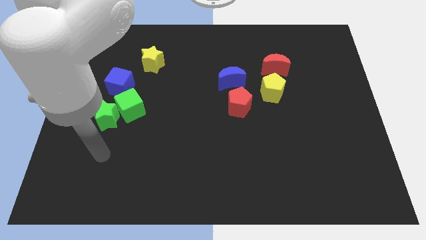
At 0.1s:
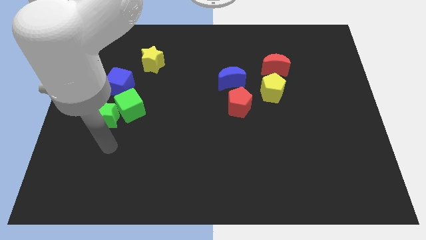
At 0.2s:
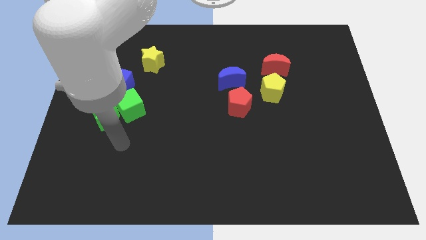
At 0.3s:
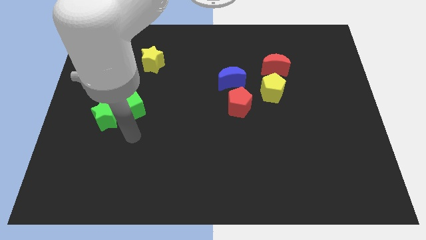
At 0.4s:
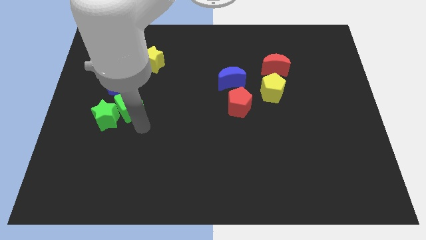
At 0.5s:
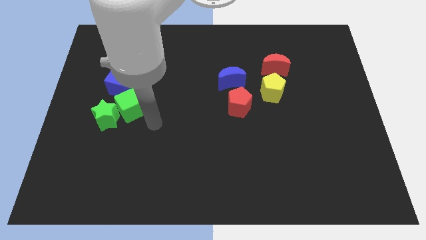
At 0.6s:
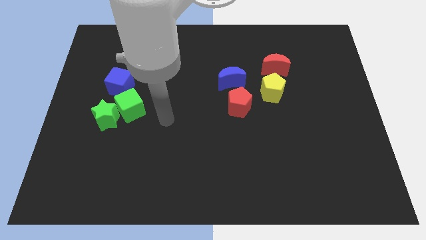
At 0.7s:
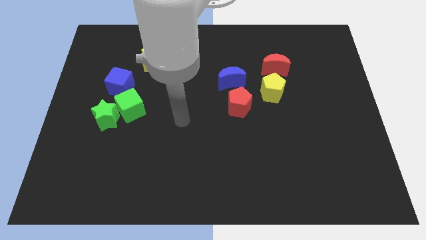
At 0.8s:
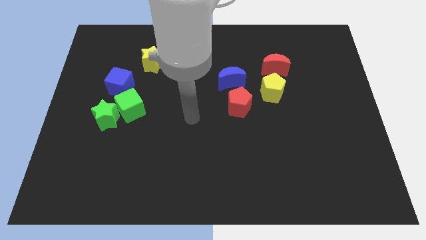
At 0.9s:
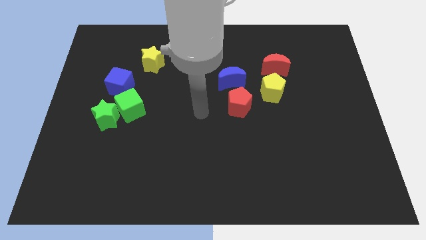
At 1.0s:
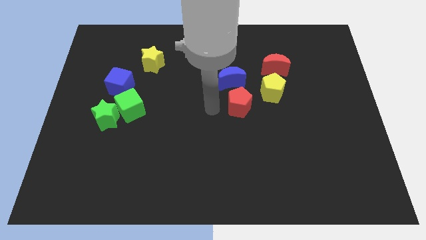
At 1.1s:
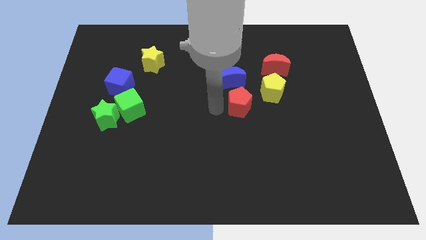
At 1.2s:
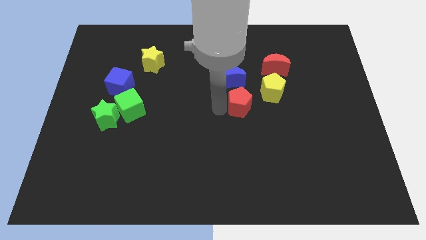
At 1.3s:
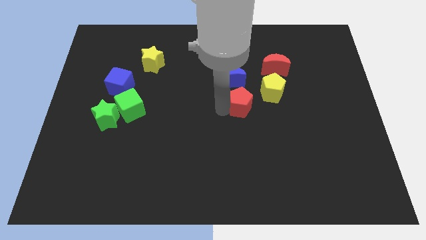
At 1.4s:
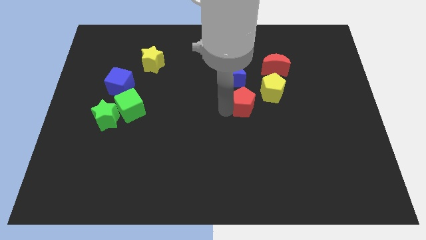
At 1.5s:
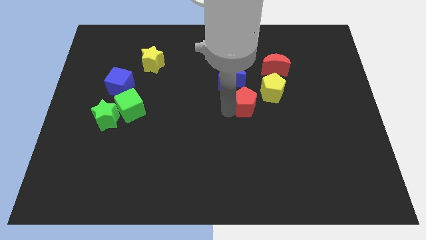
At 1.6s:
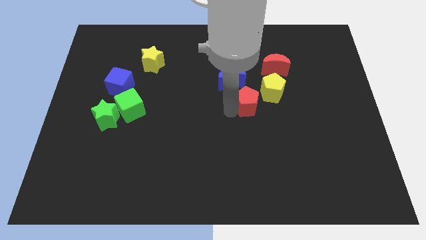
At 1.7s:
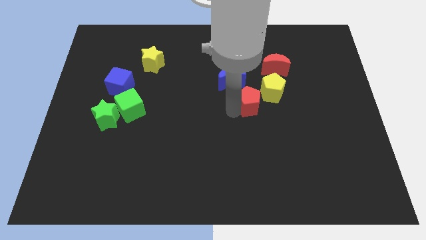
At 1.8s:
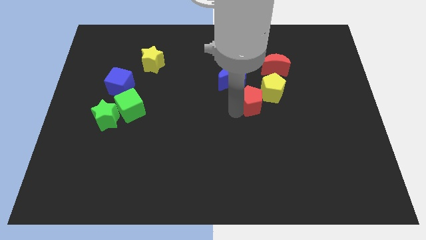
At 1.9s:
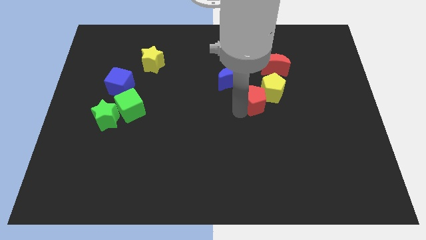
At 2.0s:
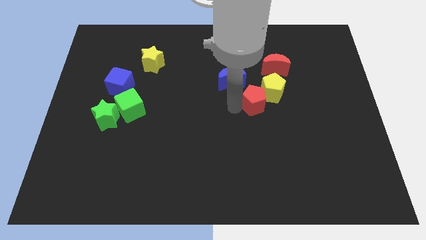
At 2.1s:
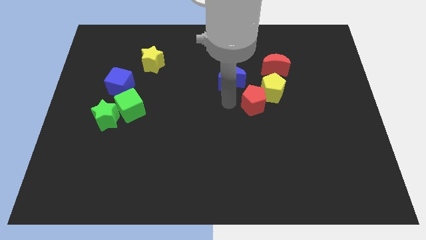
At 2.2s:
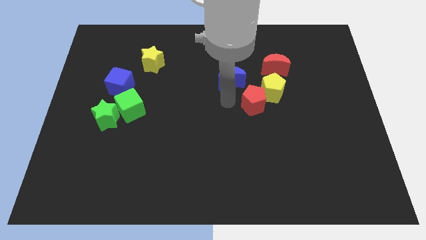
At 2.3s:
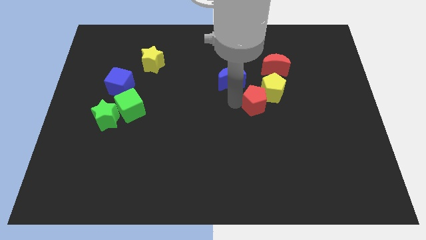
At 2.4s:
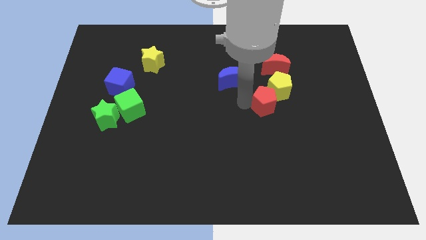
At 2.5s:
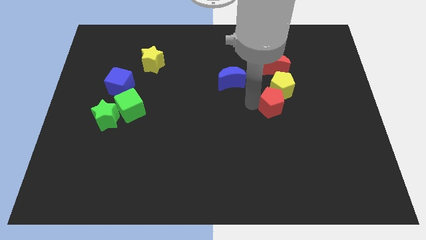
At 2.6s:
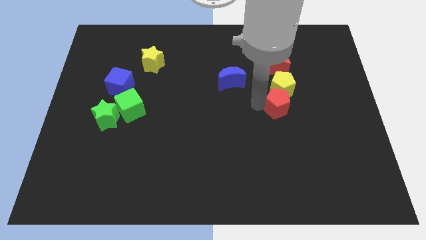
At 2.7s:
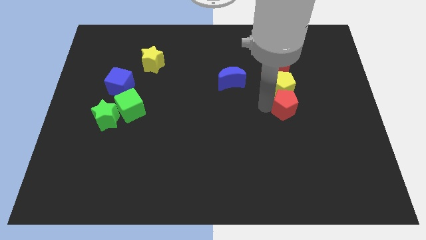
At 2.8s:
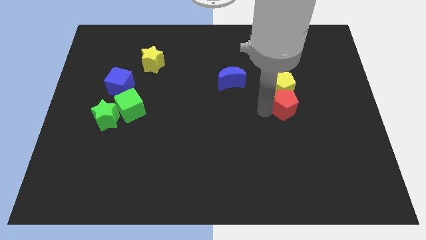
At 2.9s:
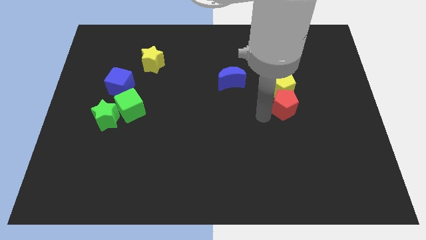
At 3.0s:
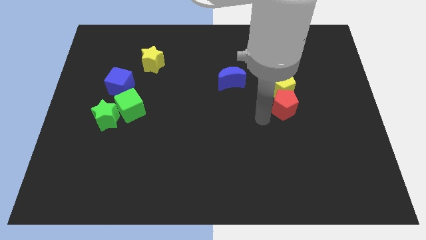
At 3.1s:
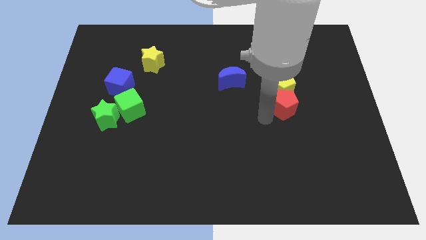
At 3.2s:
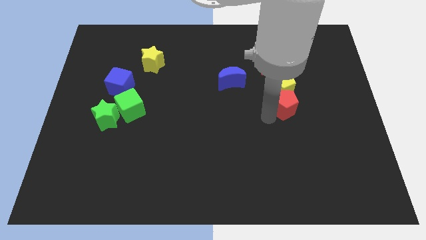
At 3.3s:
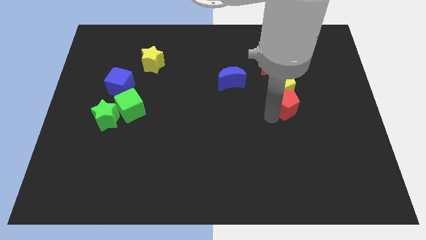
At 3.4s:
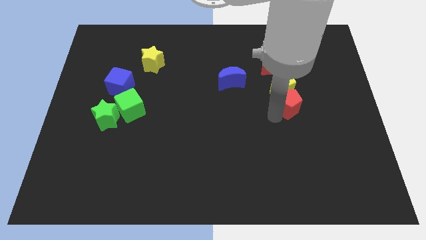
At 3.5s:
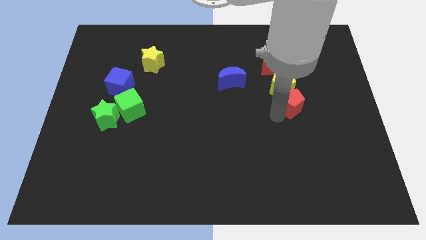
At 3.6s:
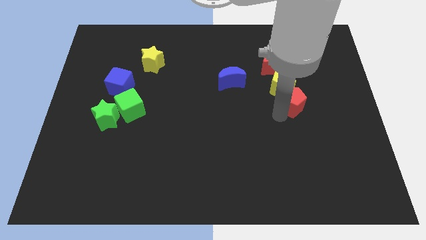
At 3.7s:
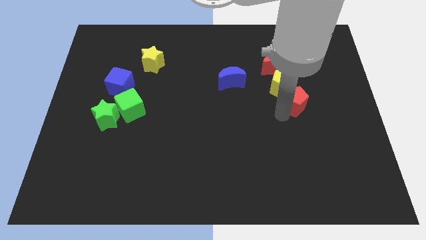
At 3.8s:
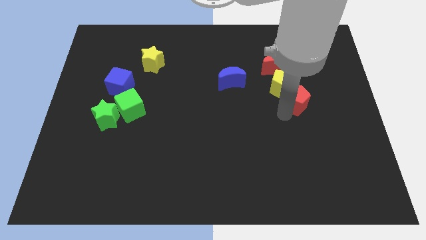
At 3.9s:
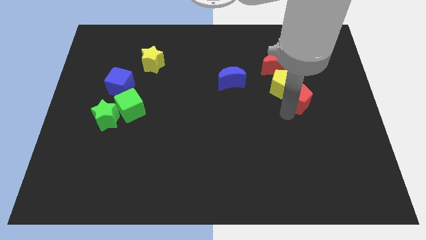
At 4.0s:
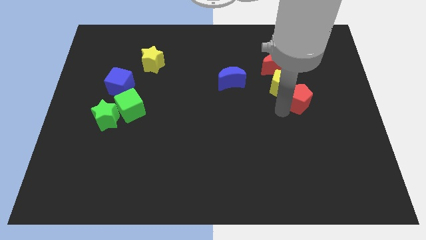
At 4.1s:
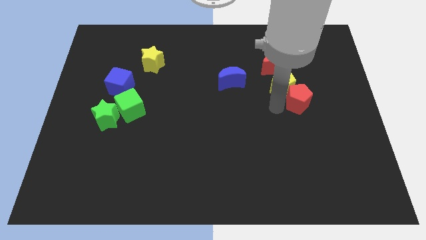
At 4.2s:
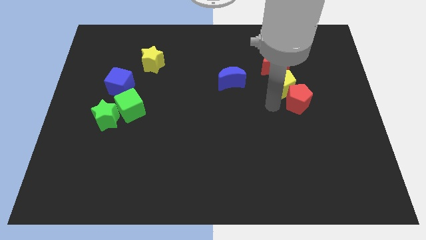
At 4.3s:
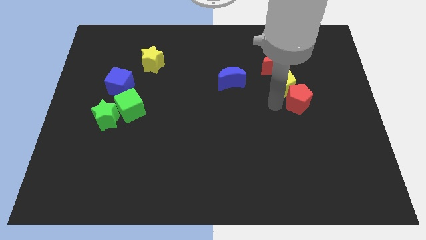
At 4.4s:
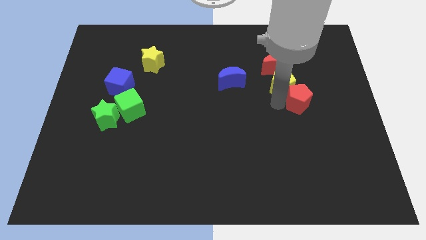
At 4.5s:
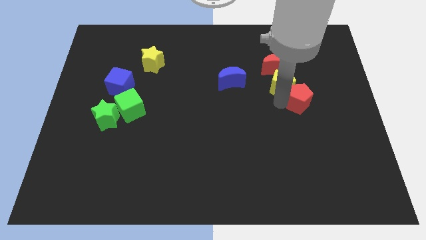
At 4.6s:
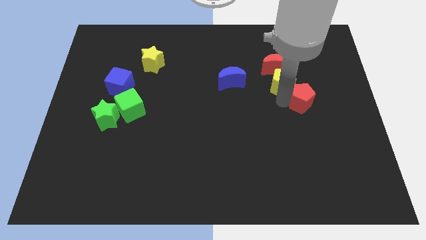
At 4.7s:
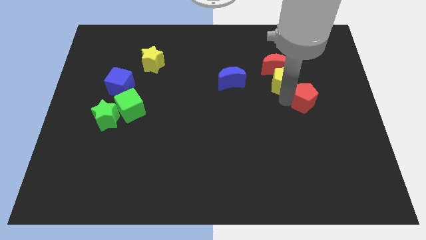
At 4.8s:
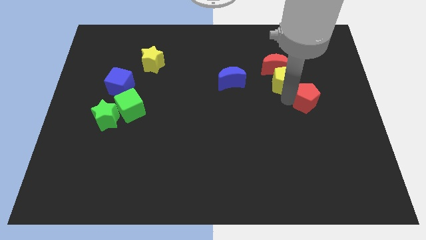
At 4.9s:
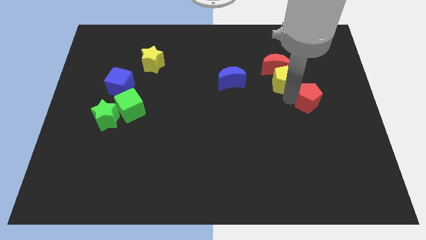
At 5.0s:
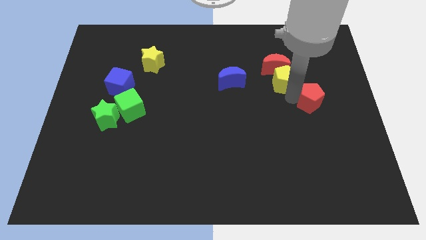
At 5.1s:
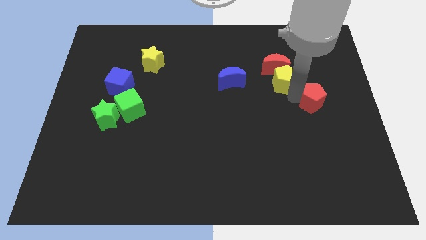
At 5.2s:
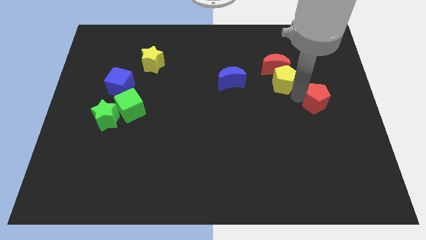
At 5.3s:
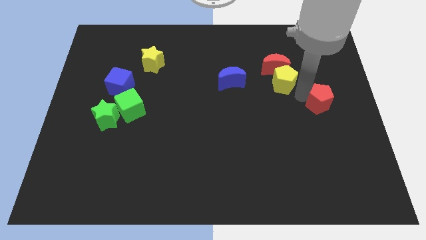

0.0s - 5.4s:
put the red pentagon to the right side of the board

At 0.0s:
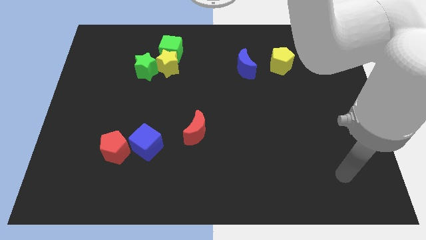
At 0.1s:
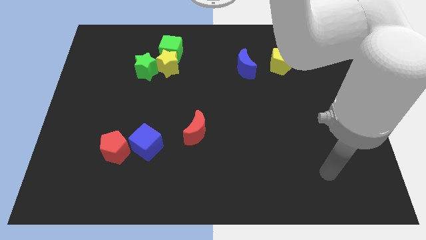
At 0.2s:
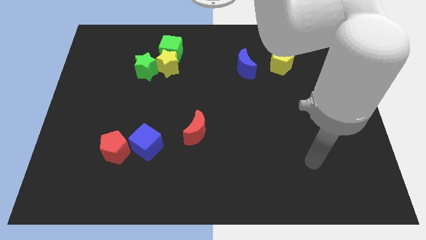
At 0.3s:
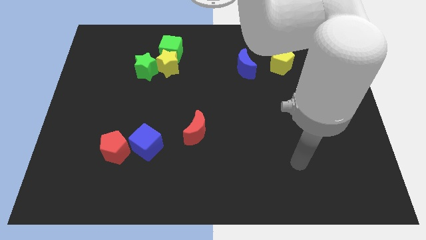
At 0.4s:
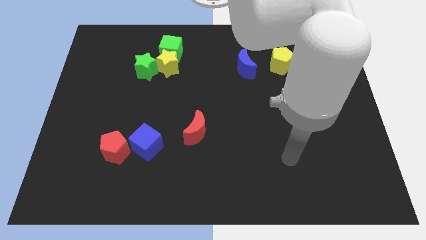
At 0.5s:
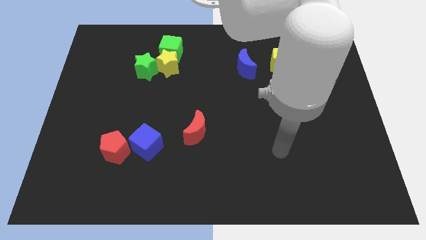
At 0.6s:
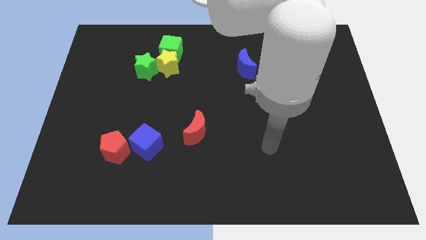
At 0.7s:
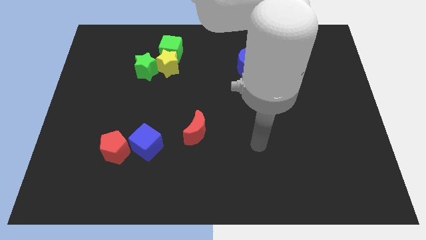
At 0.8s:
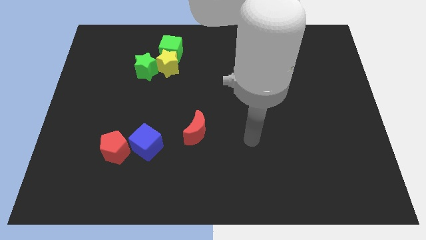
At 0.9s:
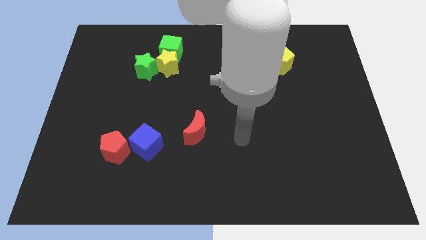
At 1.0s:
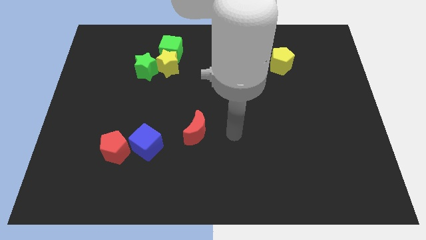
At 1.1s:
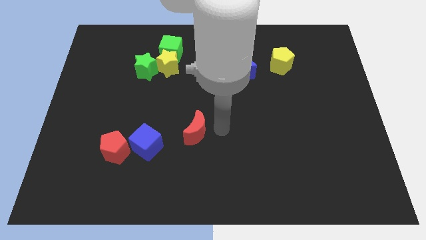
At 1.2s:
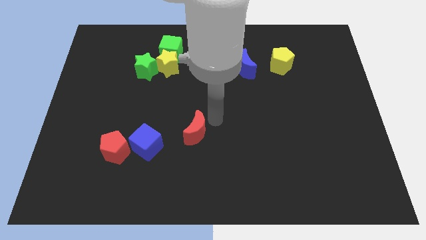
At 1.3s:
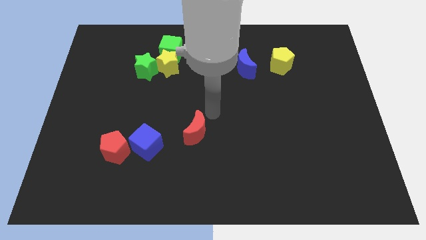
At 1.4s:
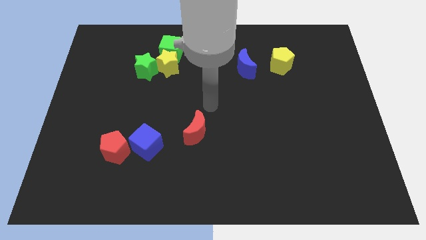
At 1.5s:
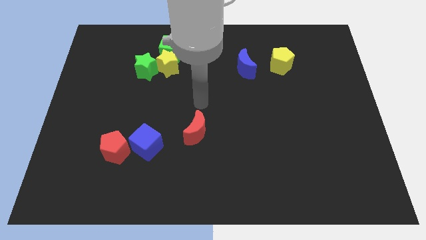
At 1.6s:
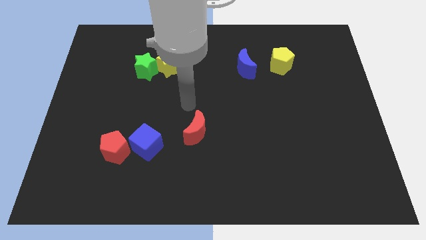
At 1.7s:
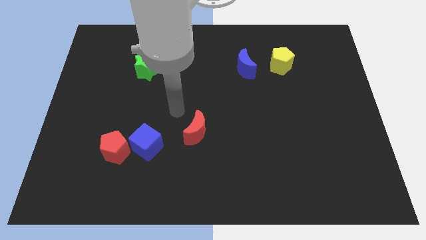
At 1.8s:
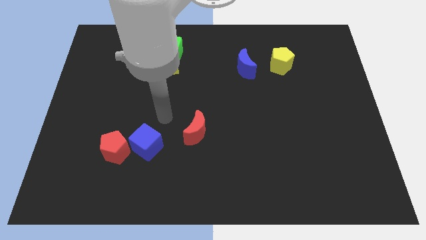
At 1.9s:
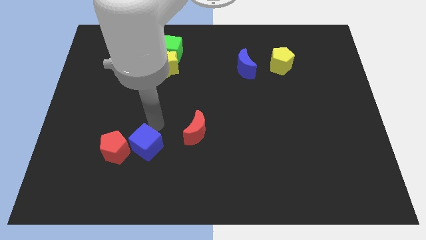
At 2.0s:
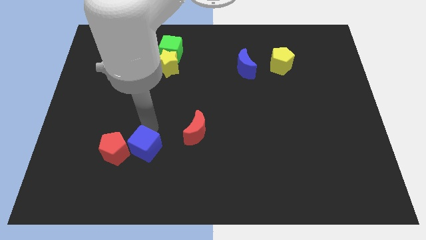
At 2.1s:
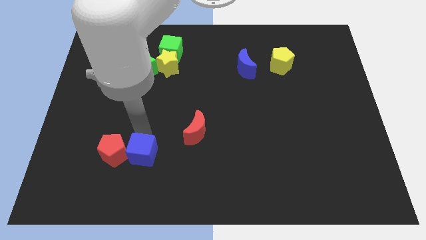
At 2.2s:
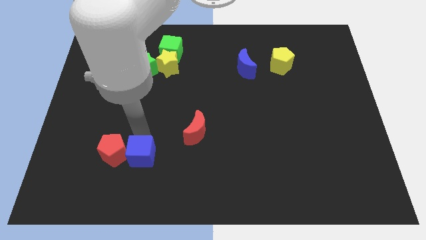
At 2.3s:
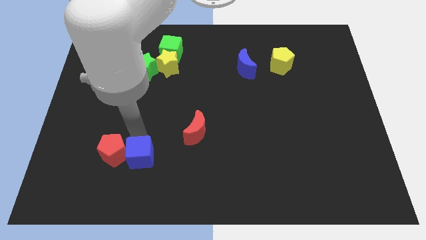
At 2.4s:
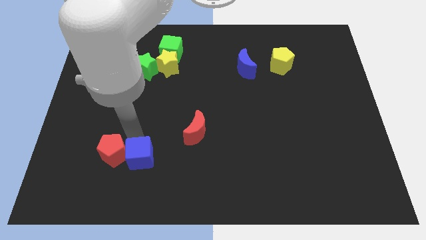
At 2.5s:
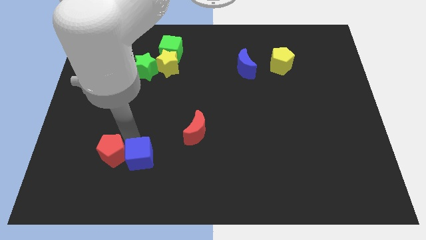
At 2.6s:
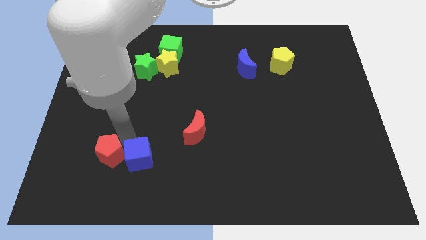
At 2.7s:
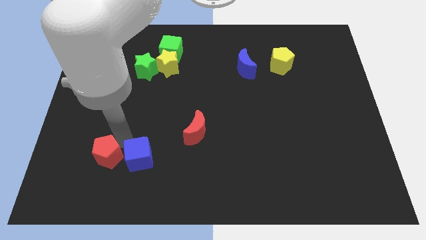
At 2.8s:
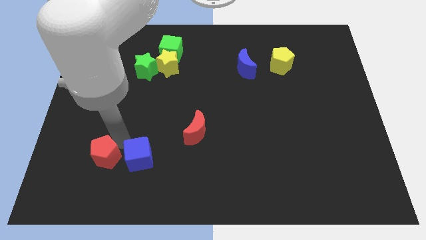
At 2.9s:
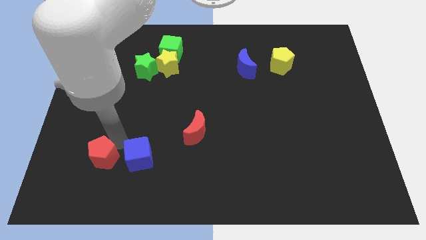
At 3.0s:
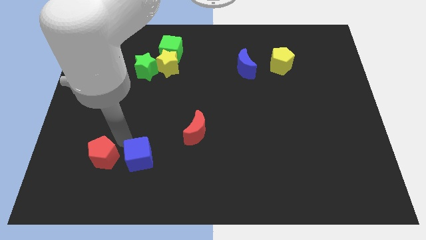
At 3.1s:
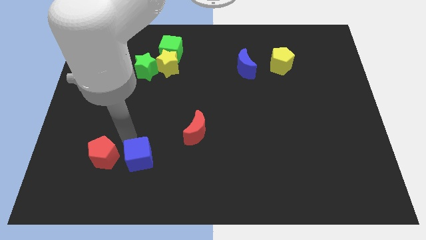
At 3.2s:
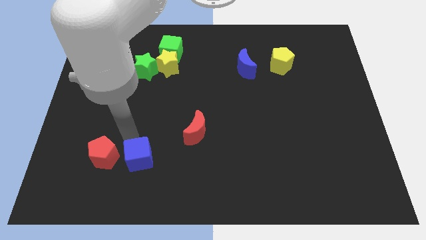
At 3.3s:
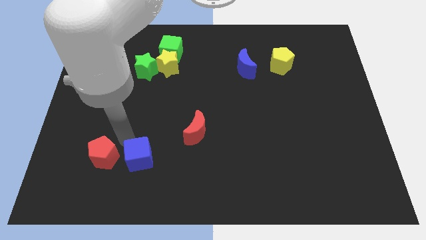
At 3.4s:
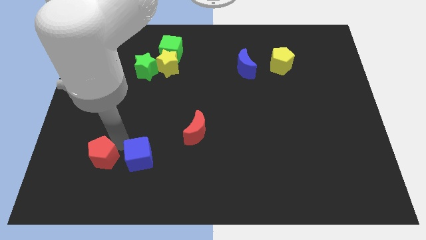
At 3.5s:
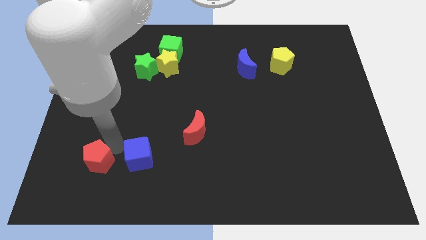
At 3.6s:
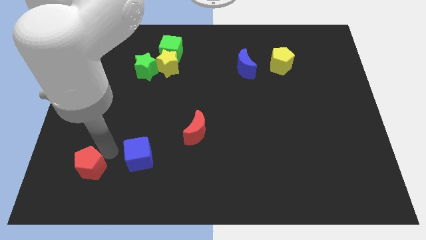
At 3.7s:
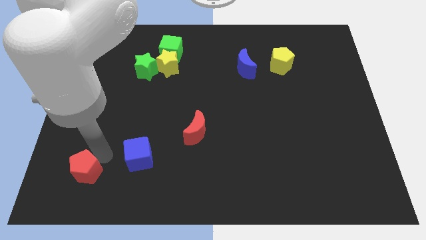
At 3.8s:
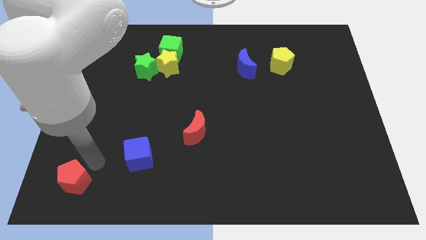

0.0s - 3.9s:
move the red pentagon to the bottom left corner
